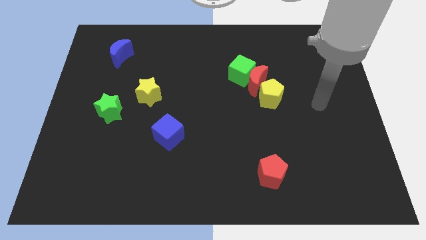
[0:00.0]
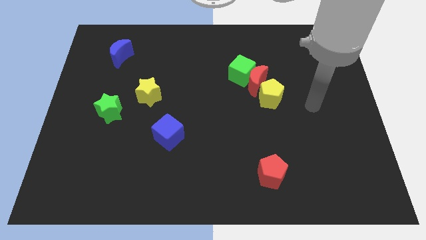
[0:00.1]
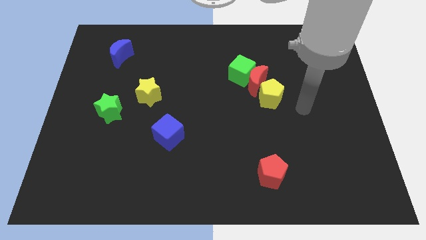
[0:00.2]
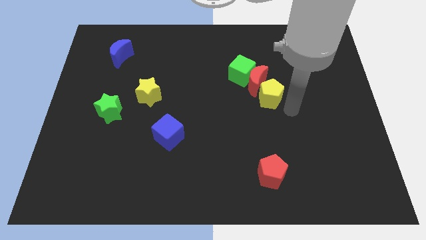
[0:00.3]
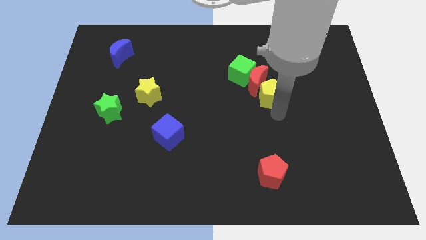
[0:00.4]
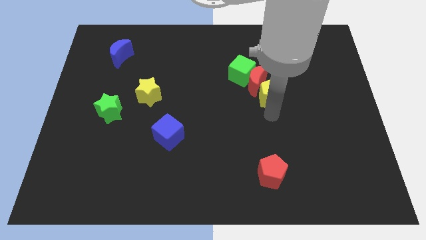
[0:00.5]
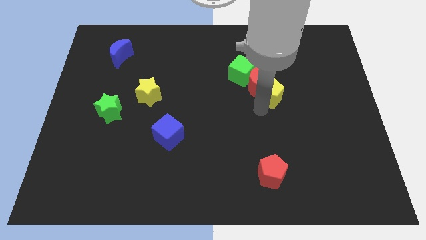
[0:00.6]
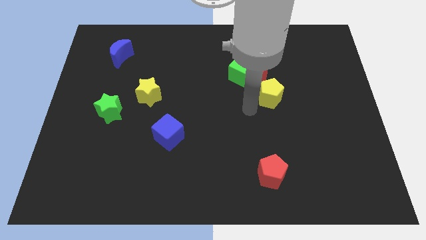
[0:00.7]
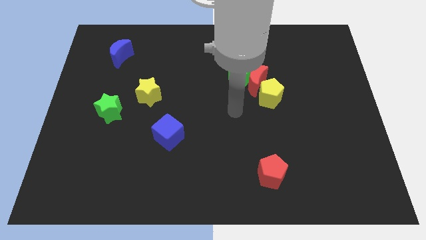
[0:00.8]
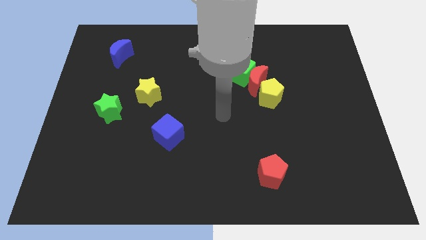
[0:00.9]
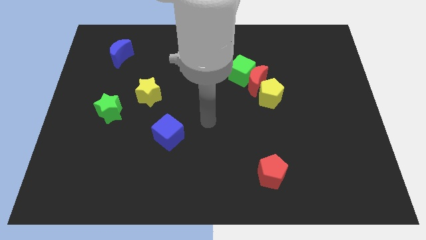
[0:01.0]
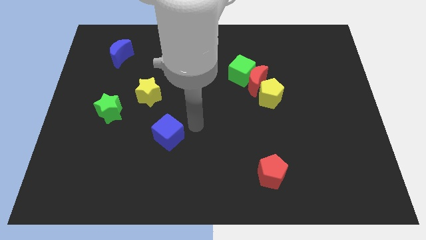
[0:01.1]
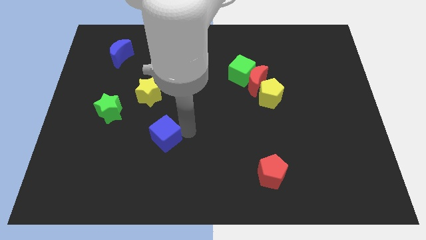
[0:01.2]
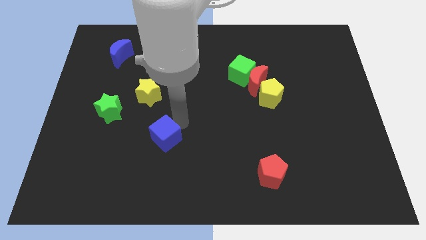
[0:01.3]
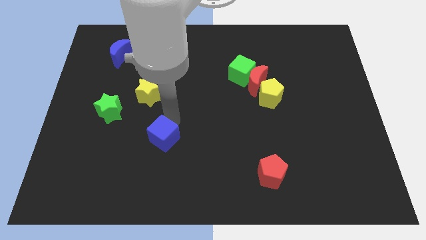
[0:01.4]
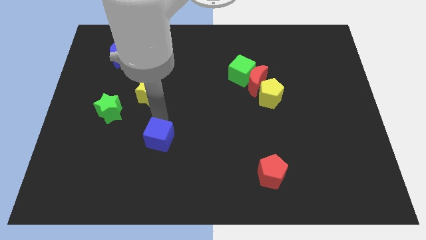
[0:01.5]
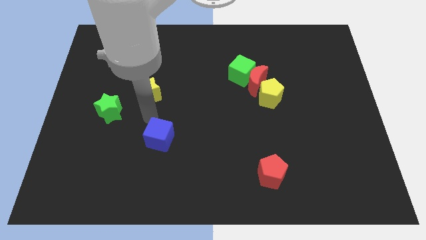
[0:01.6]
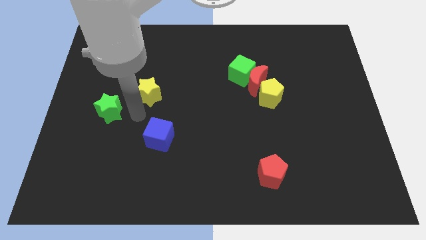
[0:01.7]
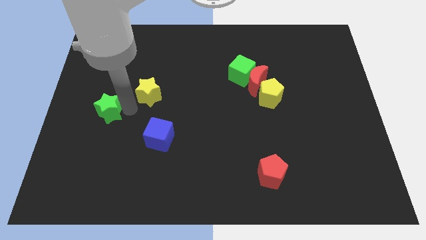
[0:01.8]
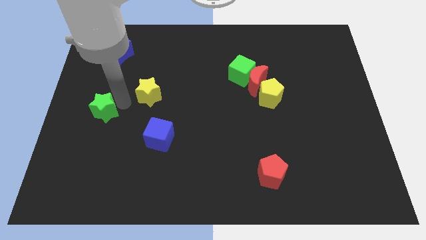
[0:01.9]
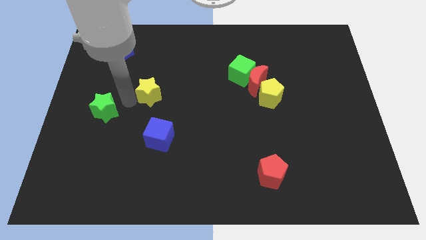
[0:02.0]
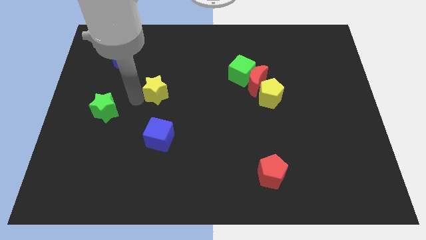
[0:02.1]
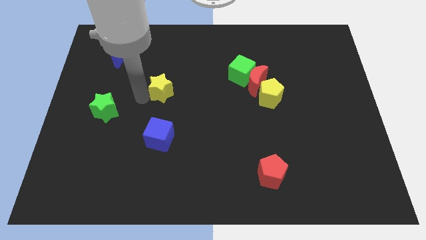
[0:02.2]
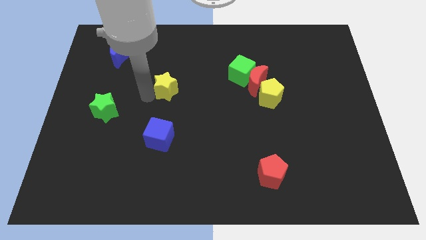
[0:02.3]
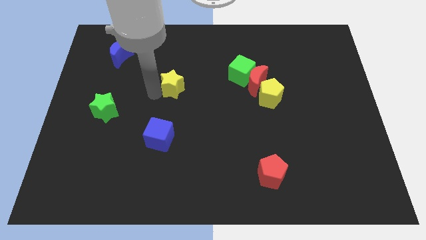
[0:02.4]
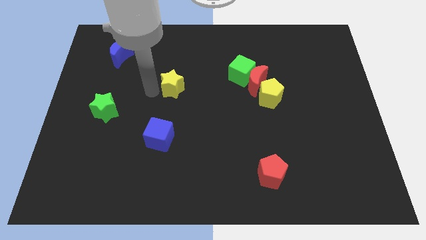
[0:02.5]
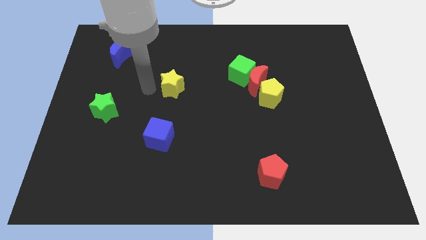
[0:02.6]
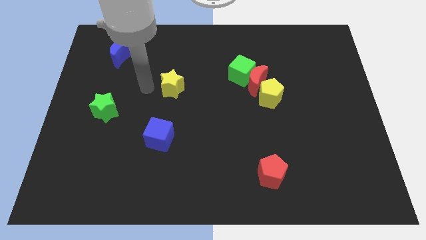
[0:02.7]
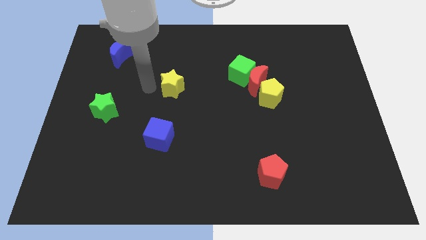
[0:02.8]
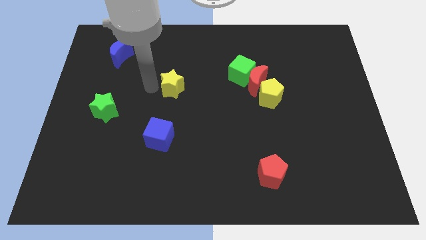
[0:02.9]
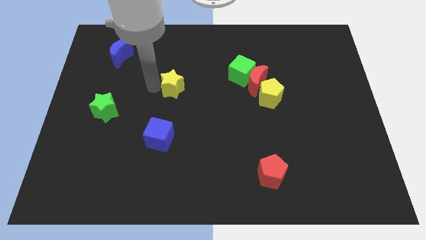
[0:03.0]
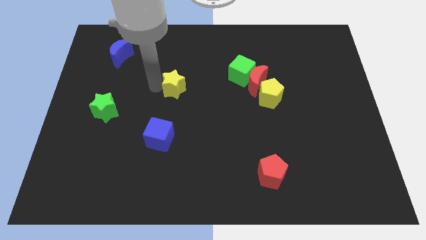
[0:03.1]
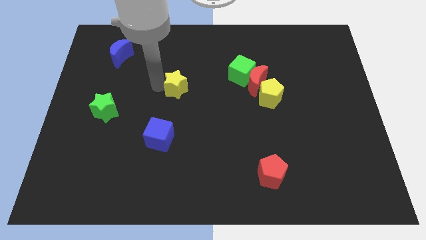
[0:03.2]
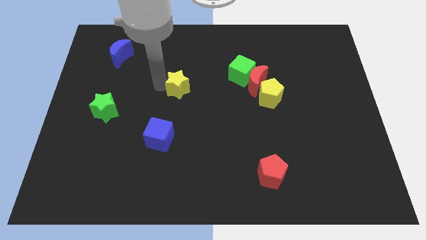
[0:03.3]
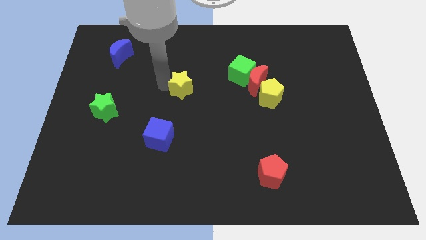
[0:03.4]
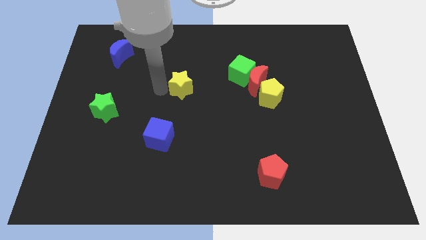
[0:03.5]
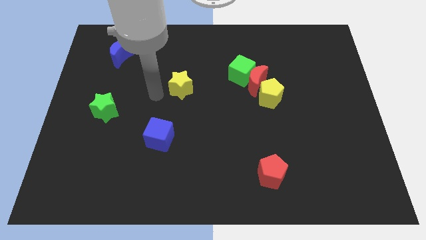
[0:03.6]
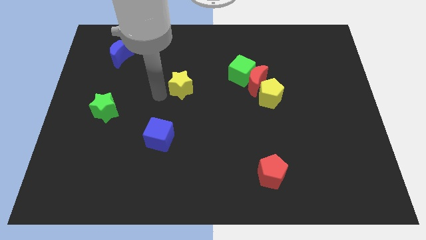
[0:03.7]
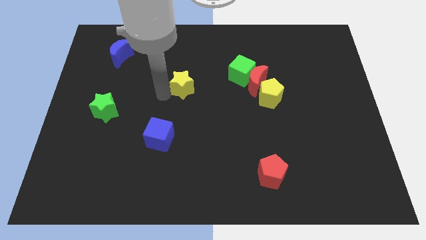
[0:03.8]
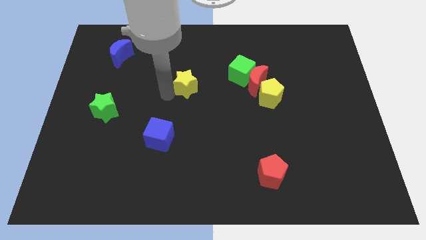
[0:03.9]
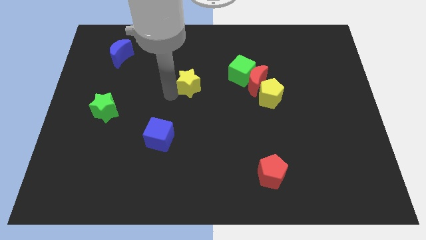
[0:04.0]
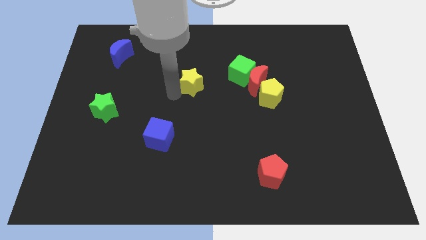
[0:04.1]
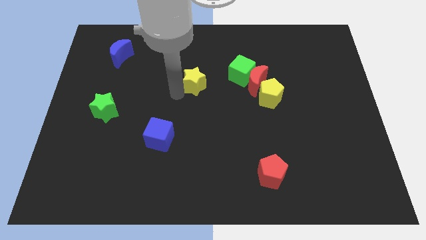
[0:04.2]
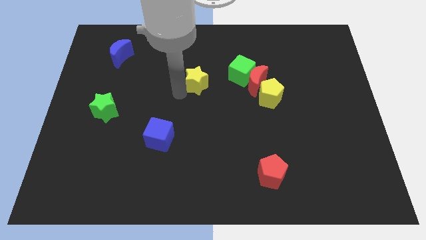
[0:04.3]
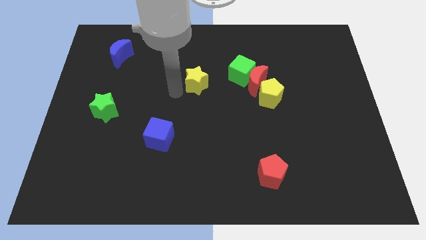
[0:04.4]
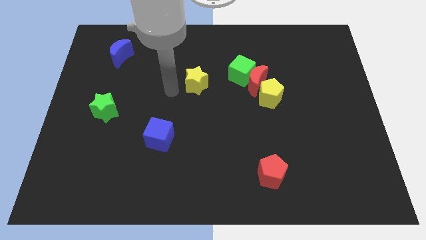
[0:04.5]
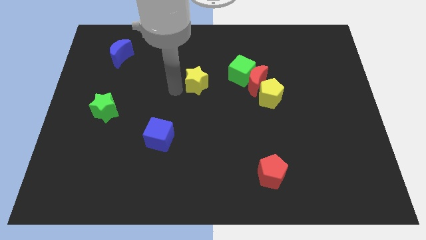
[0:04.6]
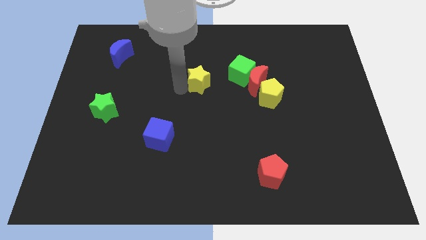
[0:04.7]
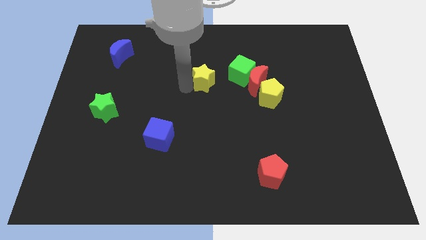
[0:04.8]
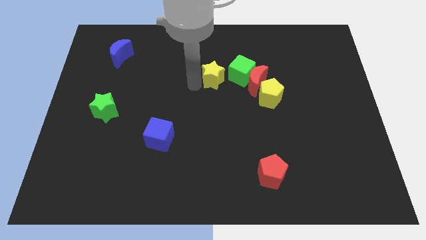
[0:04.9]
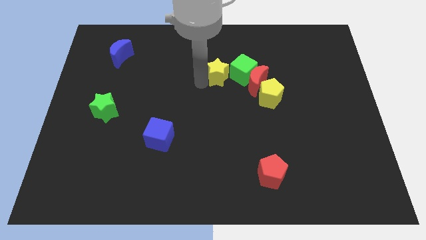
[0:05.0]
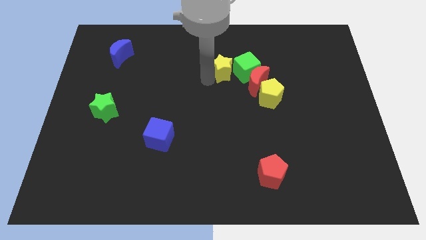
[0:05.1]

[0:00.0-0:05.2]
slide the yellow star to the green cube
